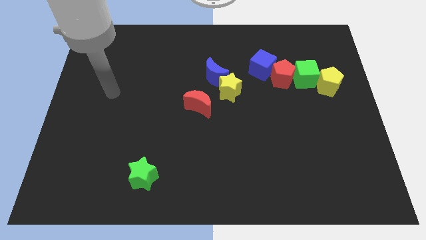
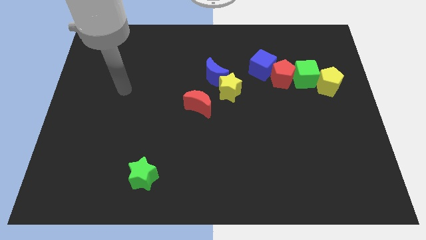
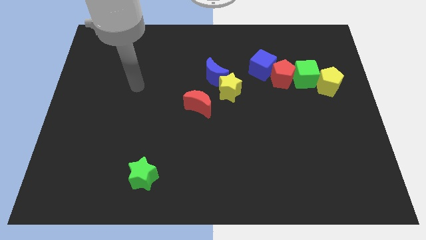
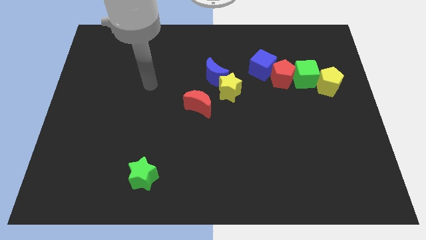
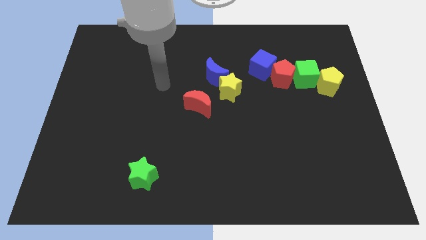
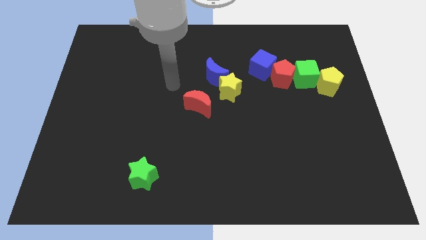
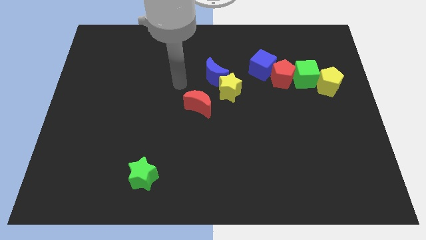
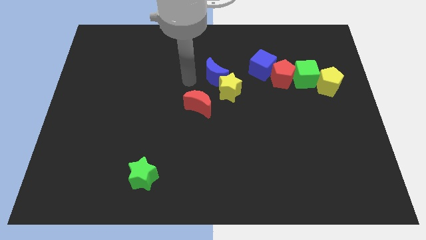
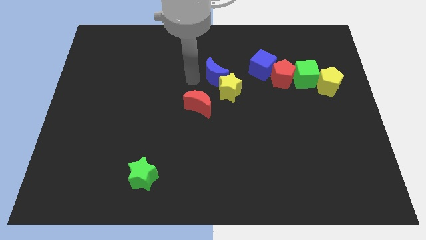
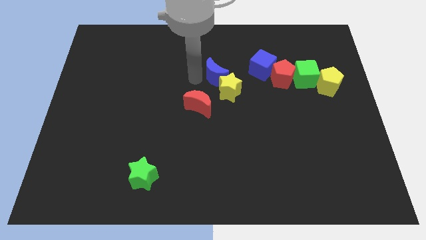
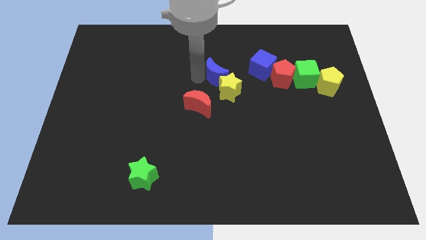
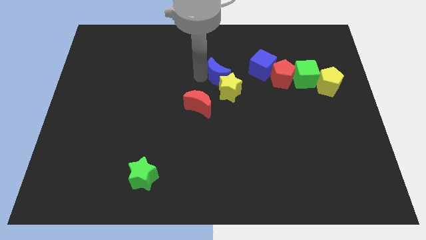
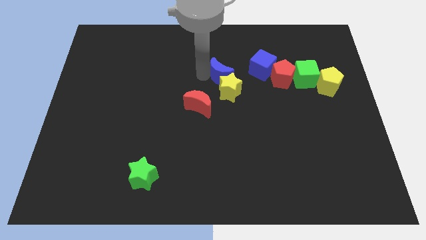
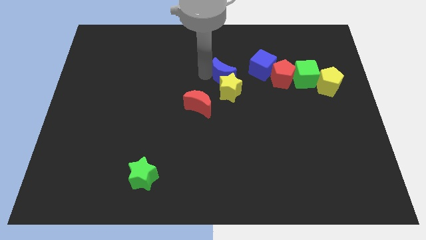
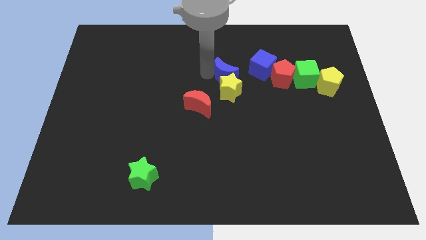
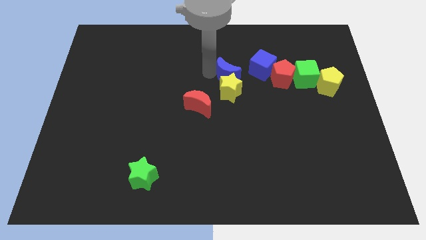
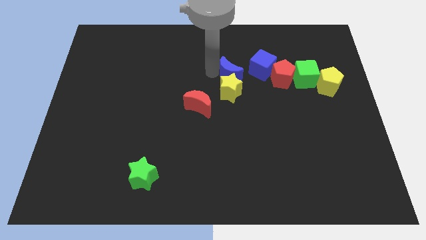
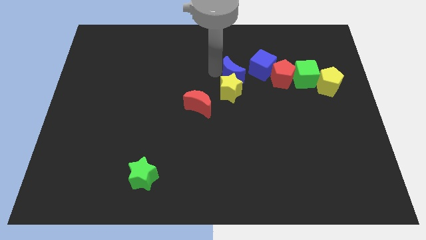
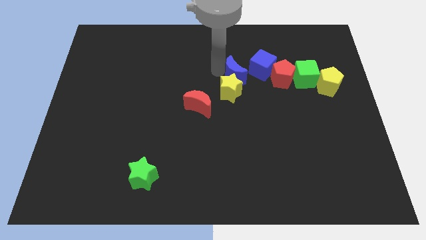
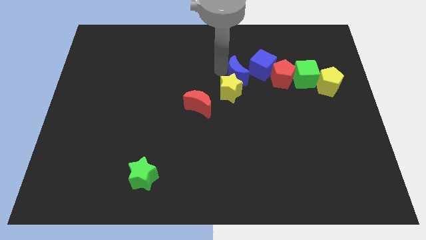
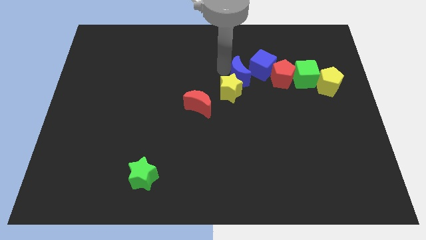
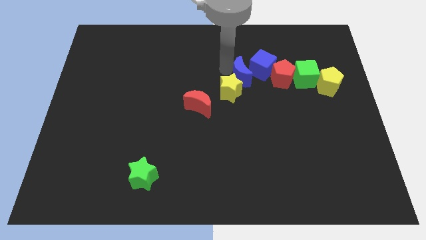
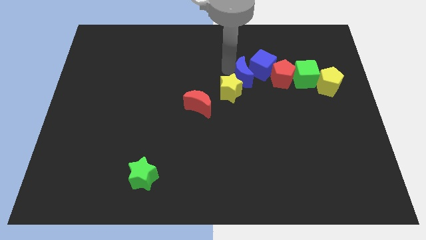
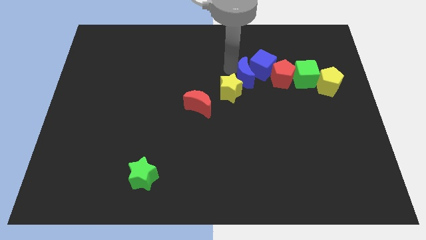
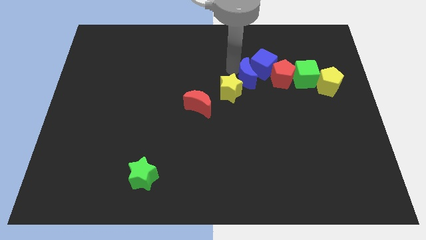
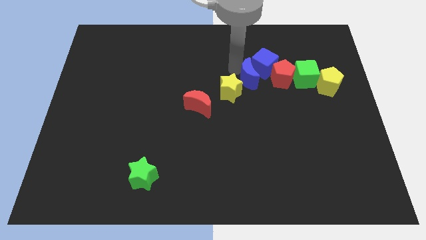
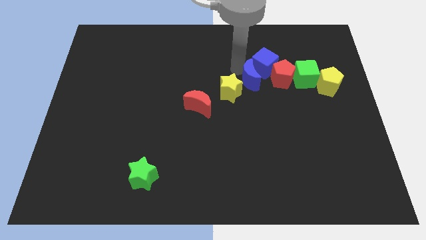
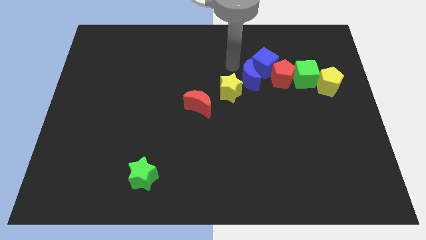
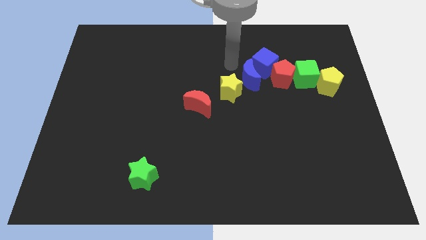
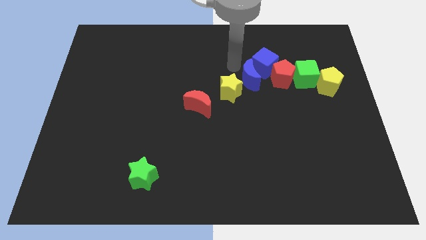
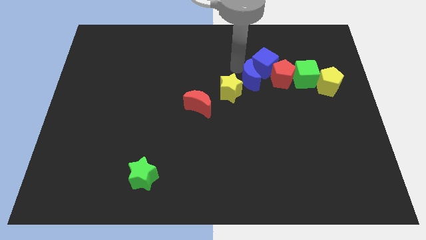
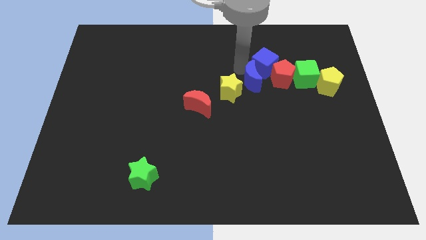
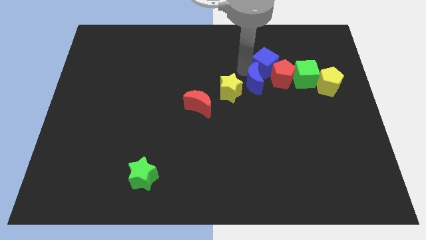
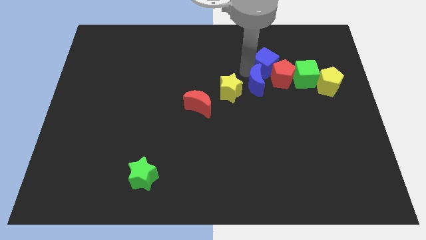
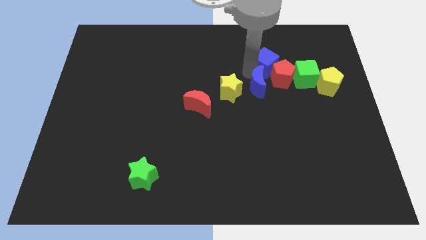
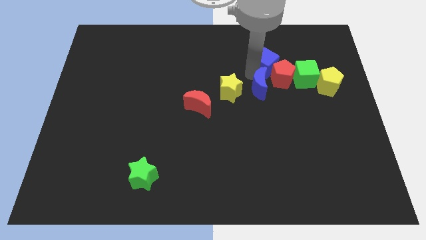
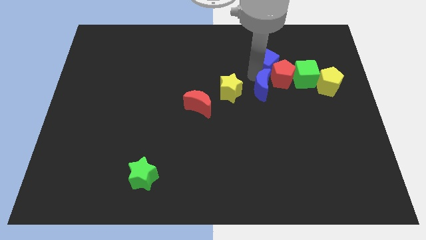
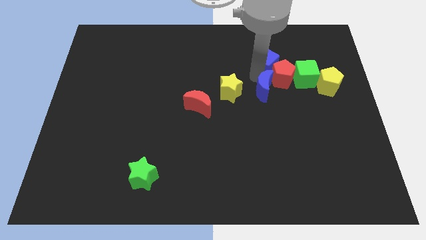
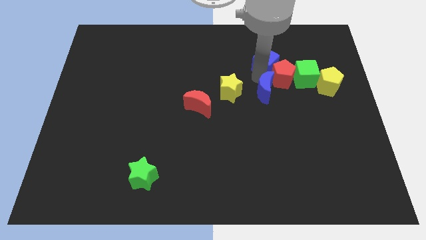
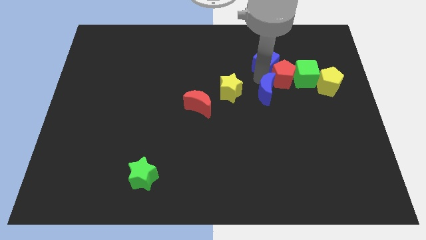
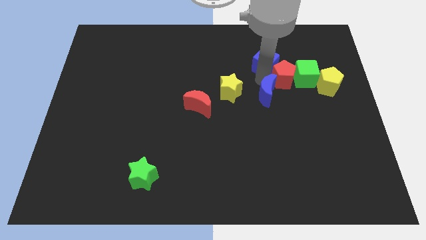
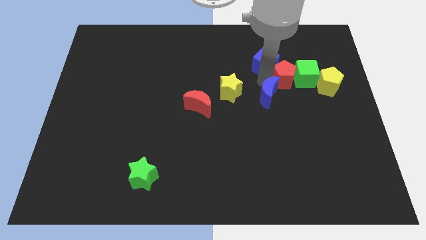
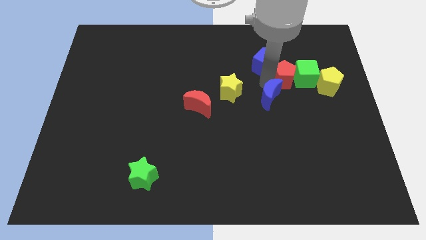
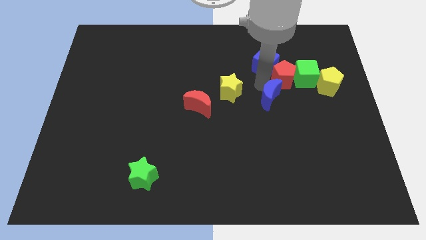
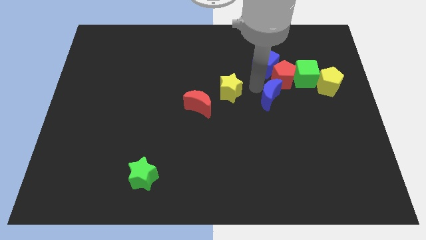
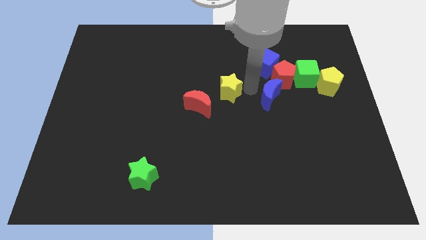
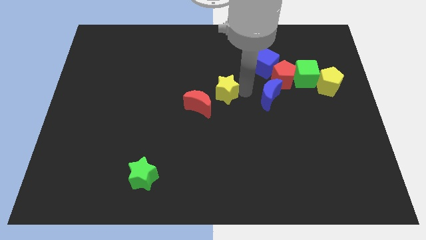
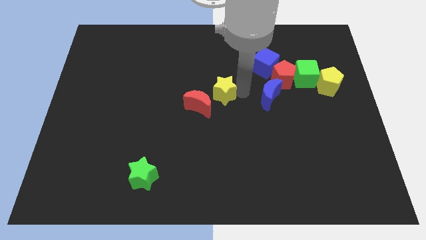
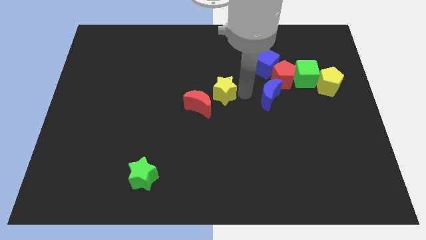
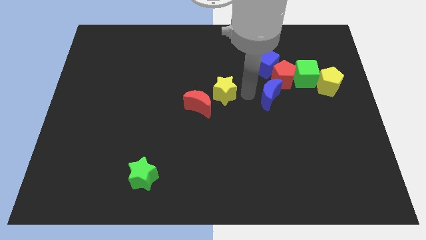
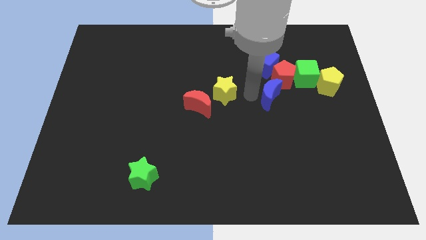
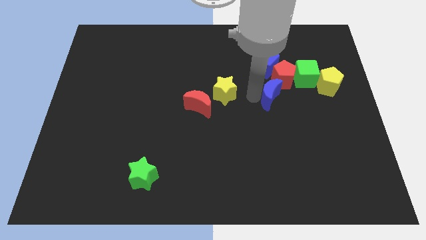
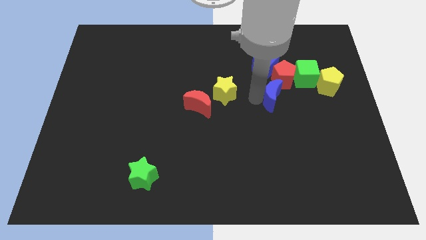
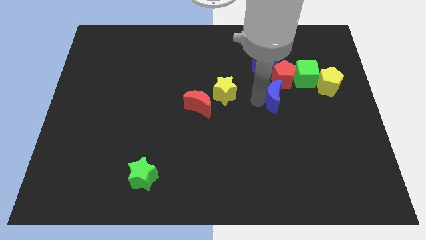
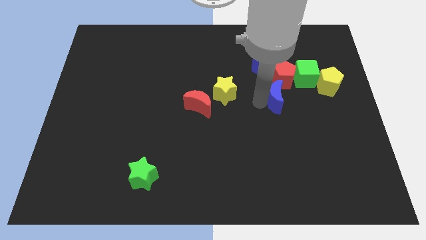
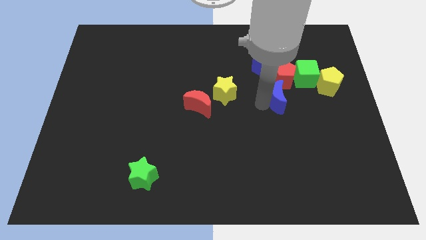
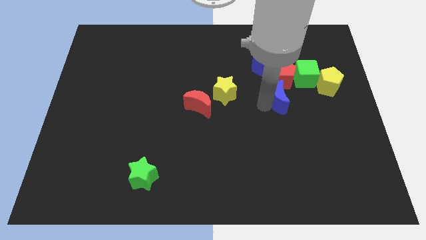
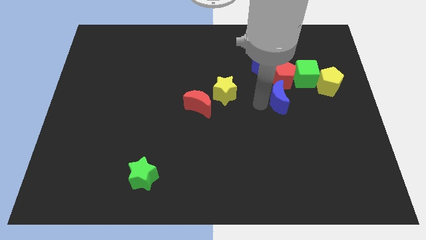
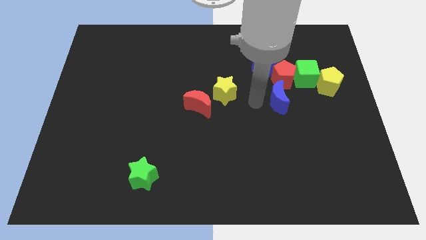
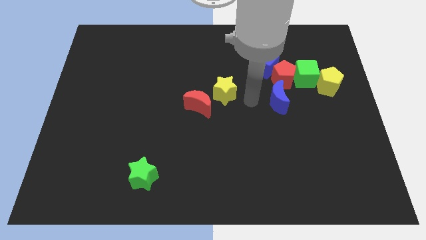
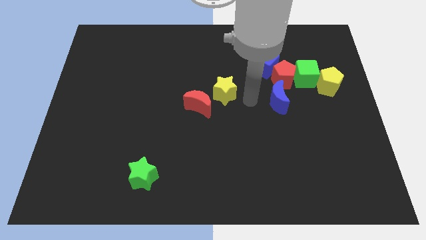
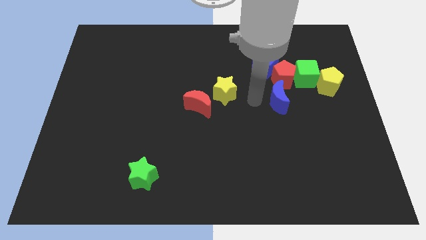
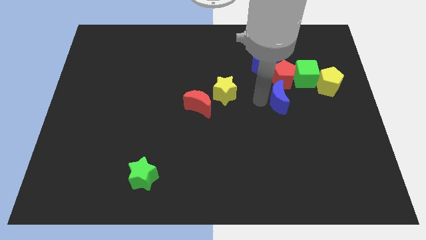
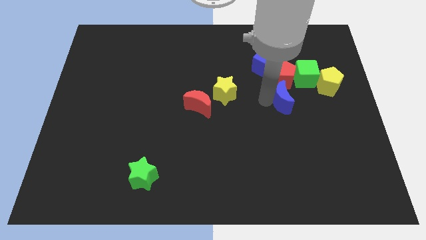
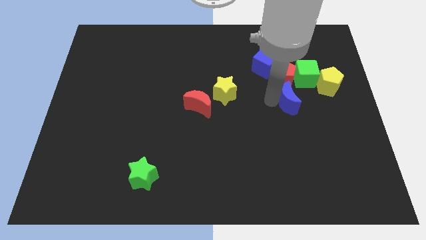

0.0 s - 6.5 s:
slide the blue moon diagonally down and to the left of the yellow pentagon
